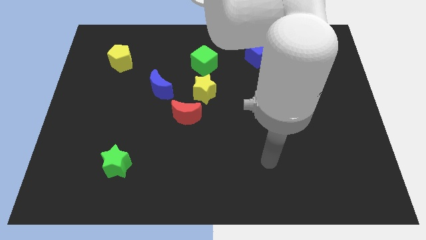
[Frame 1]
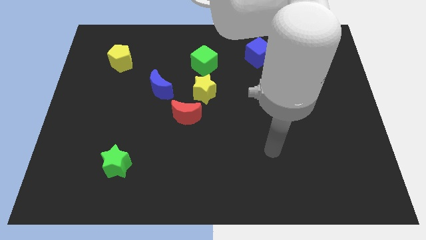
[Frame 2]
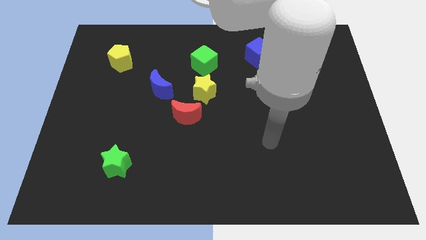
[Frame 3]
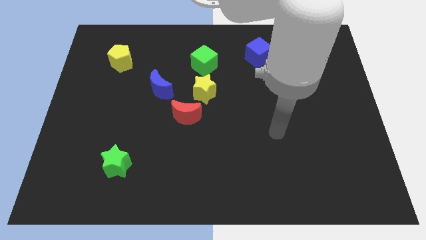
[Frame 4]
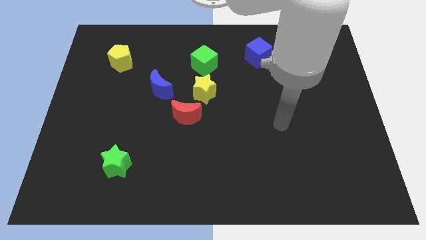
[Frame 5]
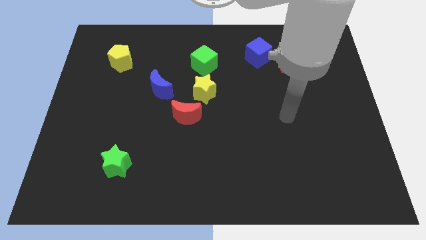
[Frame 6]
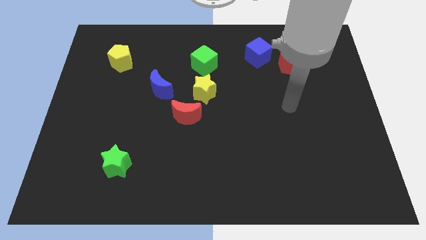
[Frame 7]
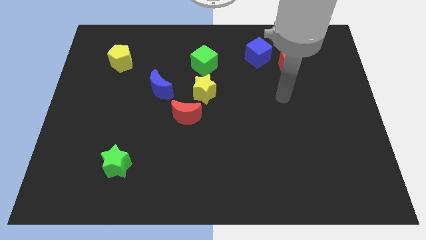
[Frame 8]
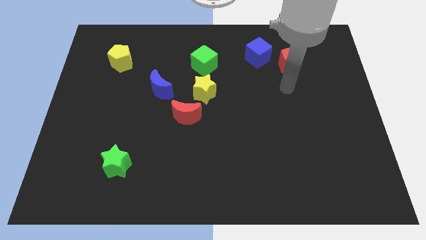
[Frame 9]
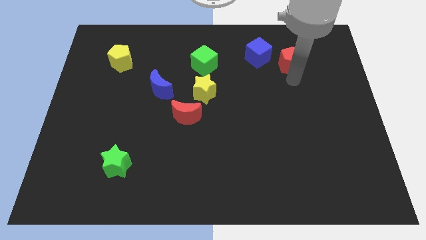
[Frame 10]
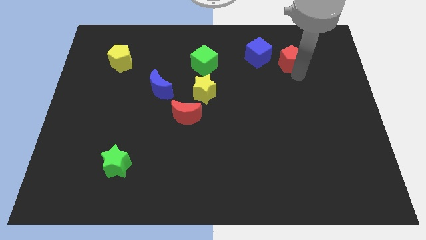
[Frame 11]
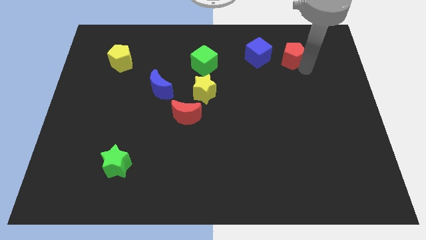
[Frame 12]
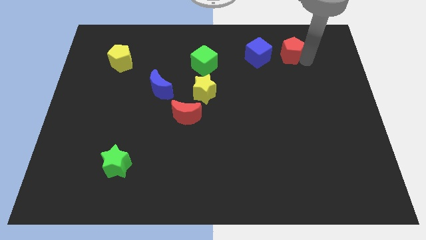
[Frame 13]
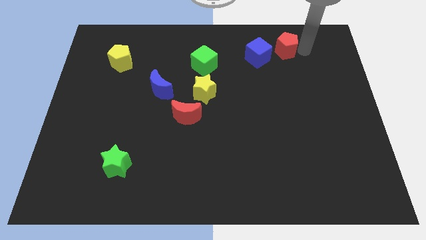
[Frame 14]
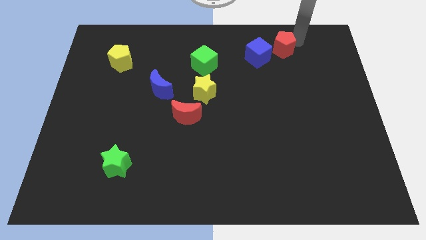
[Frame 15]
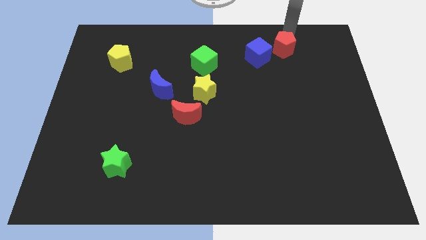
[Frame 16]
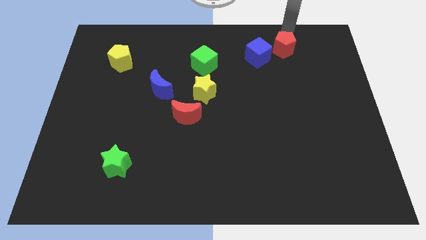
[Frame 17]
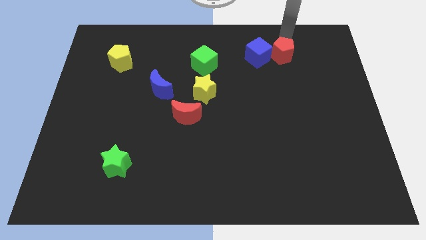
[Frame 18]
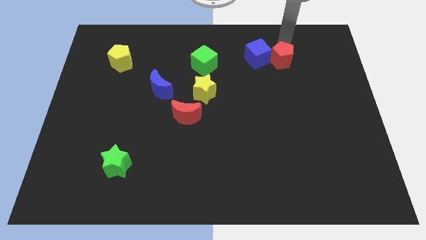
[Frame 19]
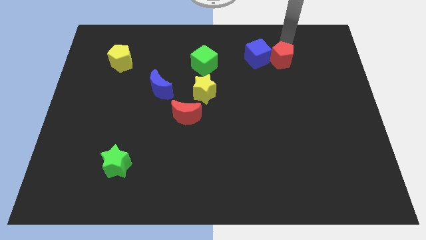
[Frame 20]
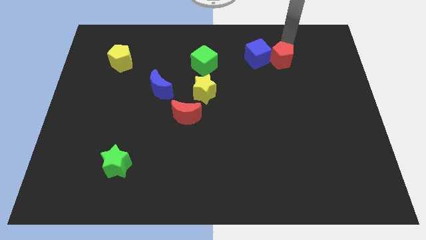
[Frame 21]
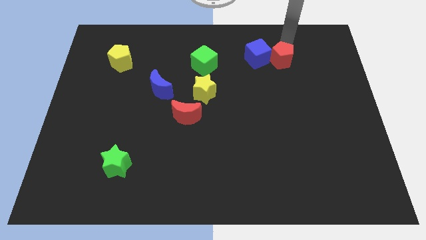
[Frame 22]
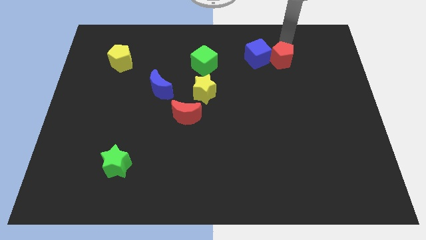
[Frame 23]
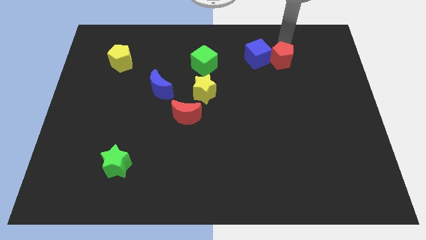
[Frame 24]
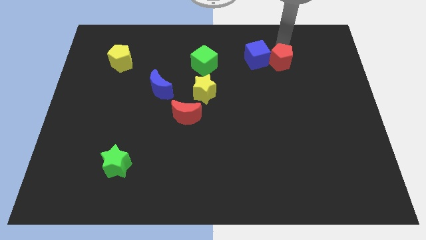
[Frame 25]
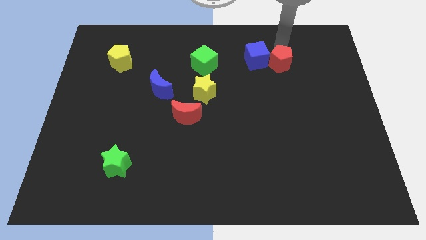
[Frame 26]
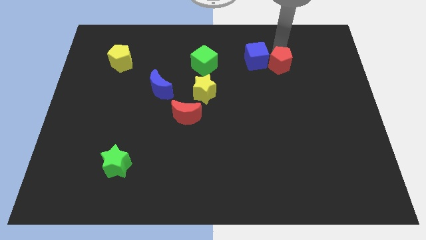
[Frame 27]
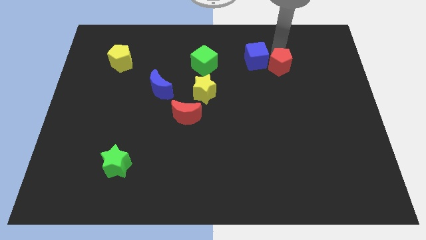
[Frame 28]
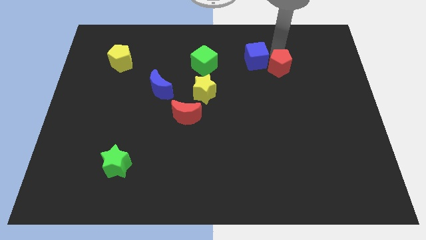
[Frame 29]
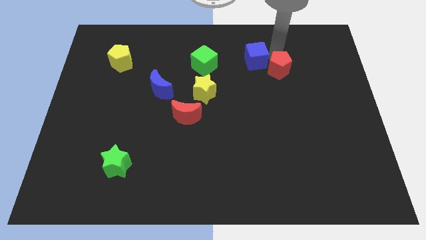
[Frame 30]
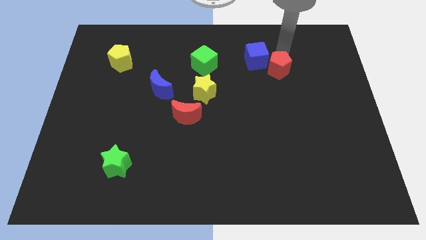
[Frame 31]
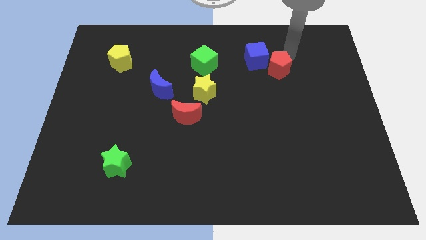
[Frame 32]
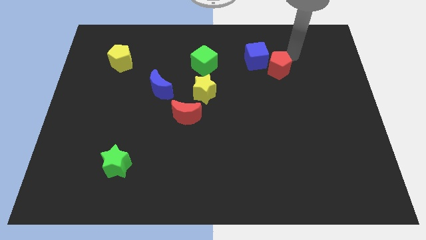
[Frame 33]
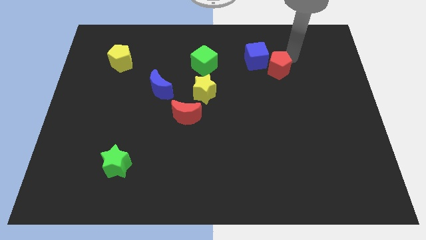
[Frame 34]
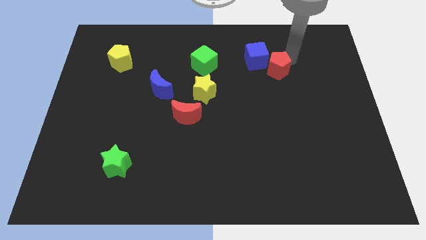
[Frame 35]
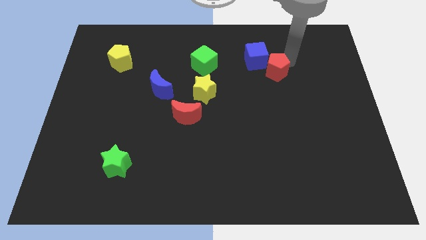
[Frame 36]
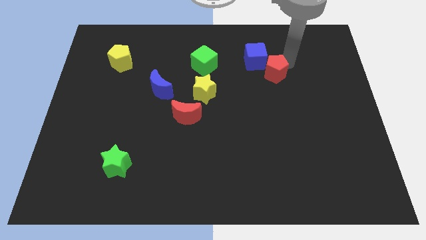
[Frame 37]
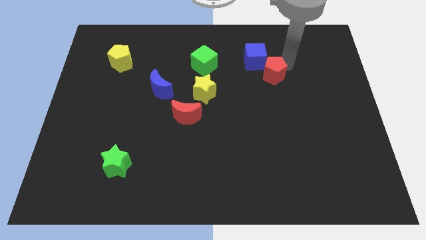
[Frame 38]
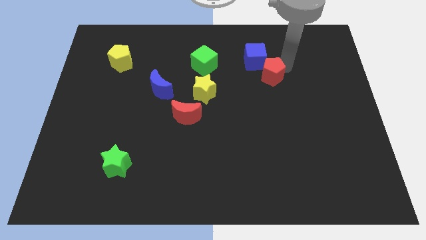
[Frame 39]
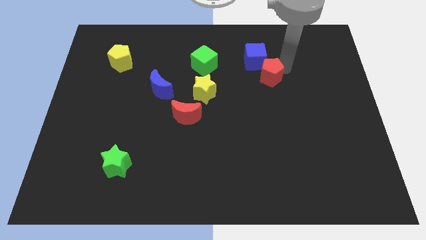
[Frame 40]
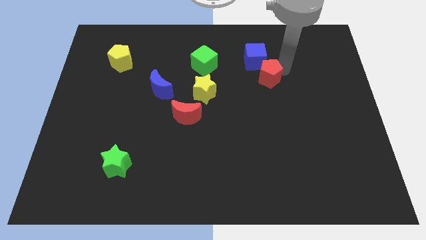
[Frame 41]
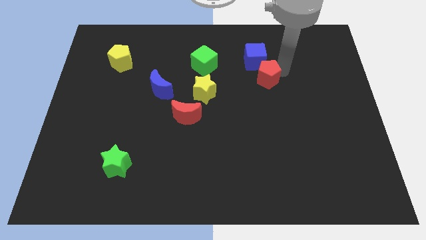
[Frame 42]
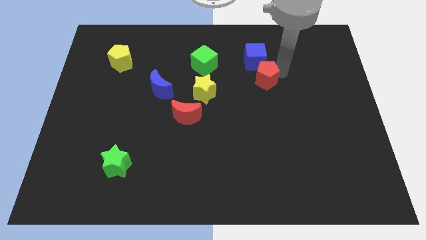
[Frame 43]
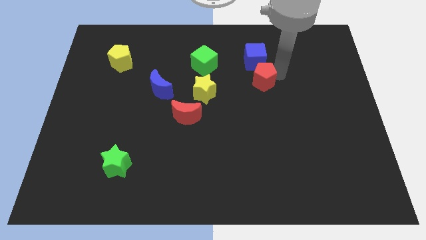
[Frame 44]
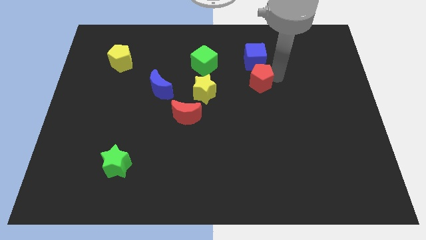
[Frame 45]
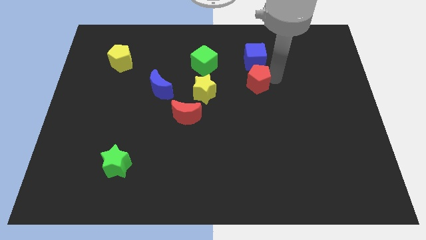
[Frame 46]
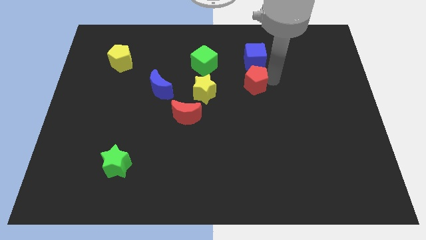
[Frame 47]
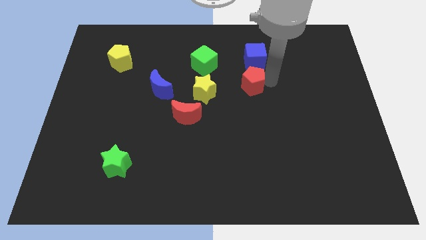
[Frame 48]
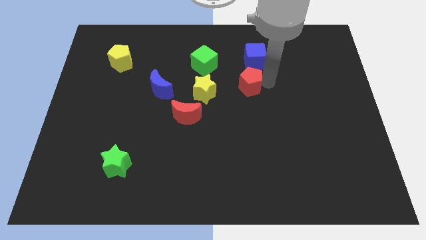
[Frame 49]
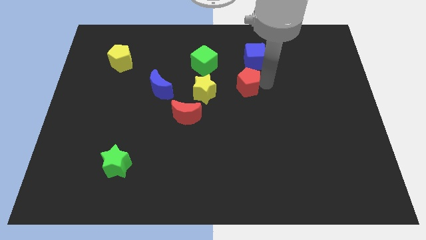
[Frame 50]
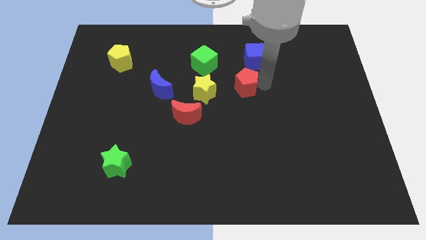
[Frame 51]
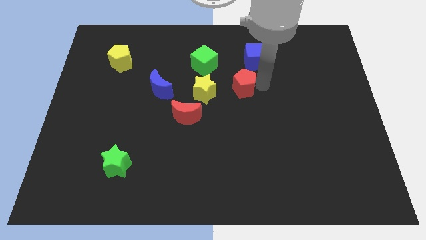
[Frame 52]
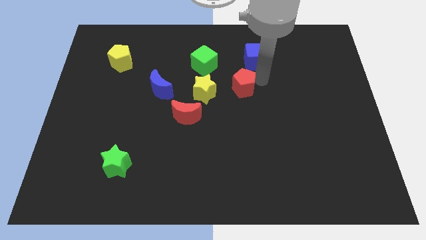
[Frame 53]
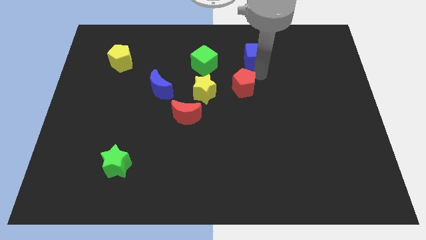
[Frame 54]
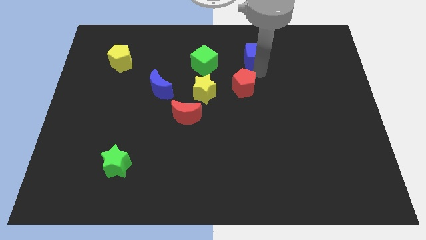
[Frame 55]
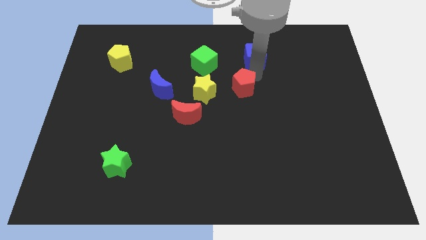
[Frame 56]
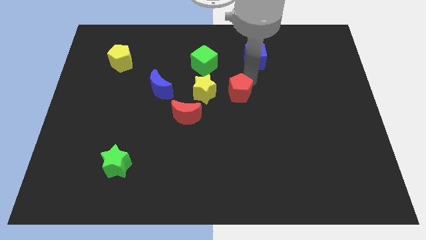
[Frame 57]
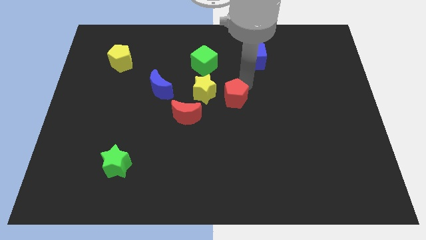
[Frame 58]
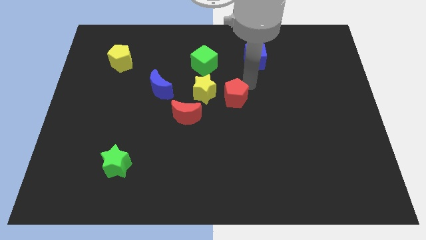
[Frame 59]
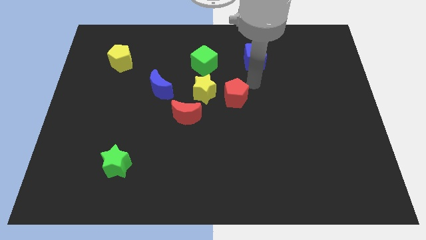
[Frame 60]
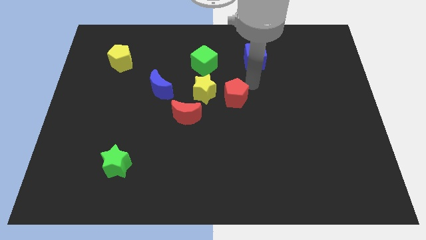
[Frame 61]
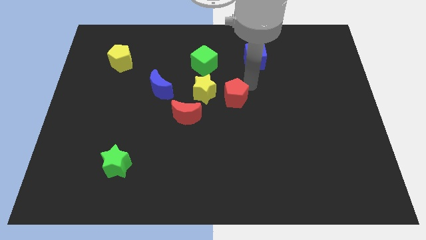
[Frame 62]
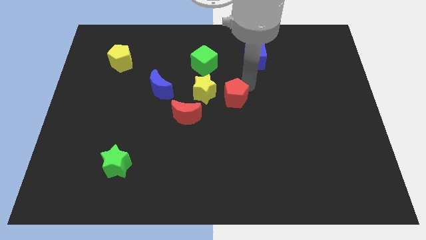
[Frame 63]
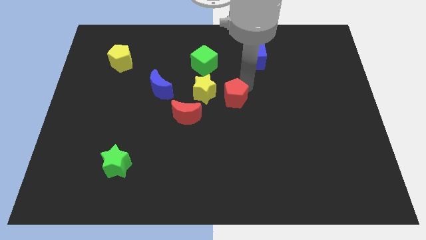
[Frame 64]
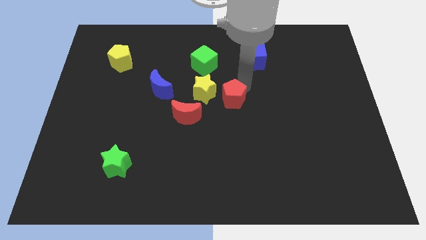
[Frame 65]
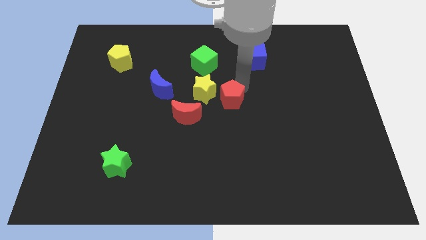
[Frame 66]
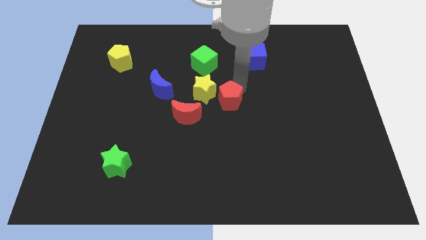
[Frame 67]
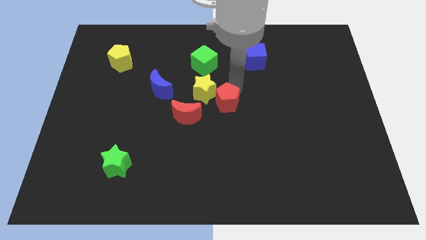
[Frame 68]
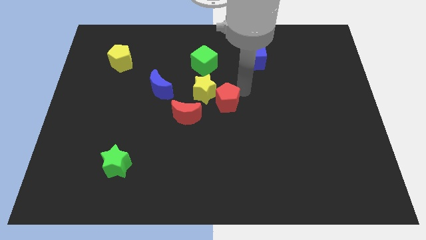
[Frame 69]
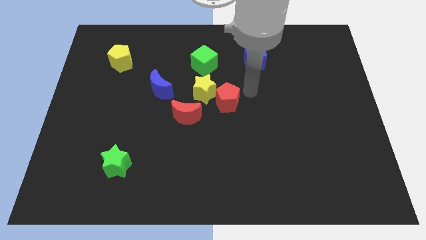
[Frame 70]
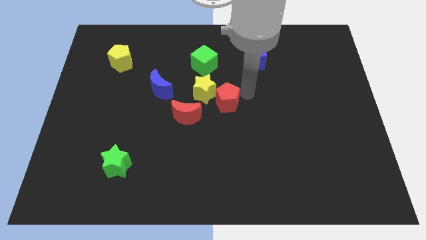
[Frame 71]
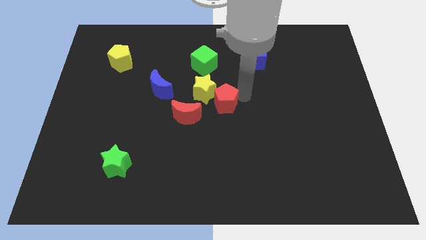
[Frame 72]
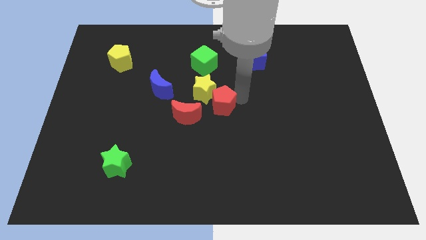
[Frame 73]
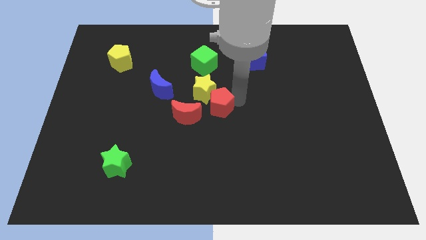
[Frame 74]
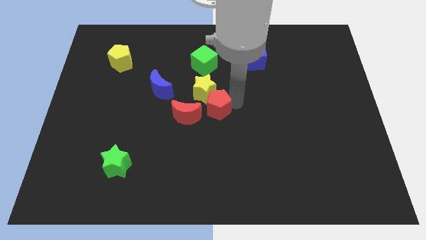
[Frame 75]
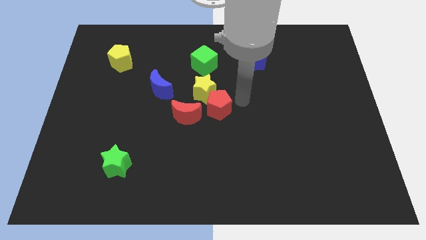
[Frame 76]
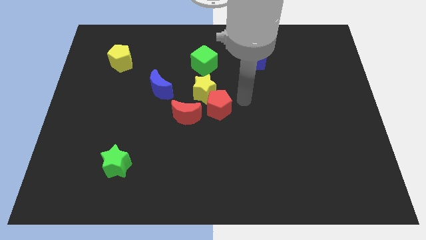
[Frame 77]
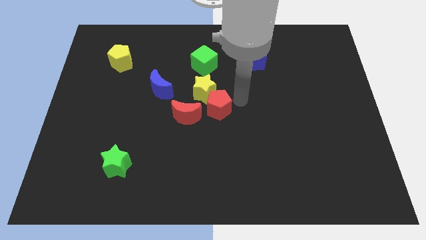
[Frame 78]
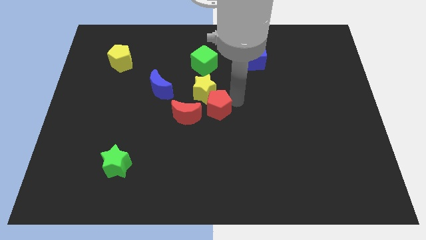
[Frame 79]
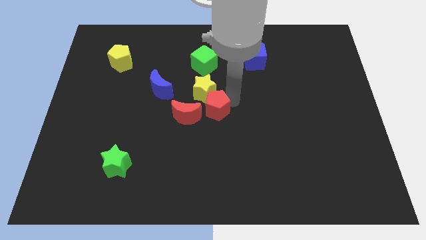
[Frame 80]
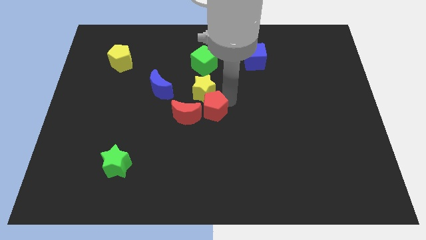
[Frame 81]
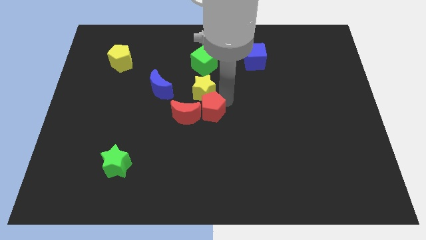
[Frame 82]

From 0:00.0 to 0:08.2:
put the red pentagon towards the red moon
